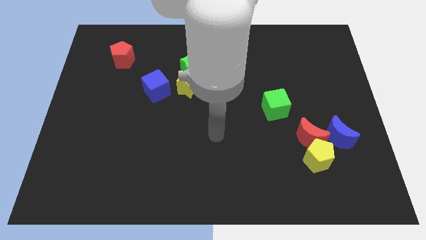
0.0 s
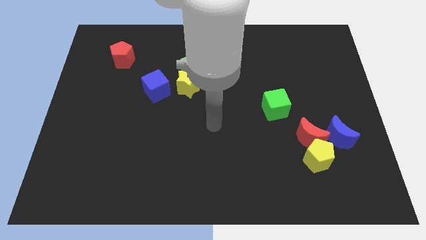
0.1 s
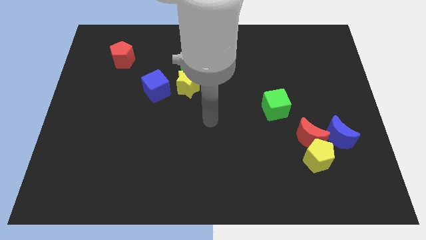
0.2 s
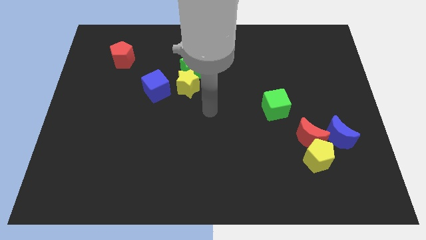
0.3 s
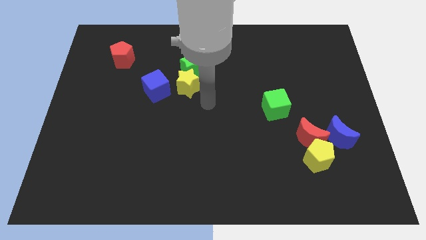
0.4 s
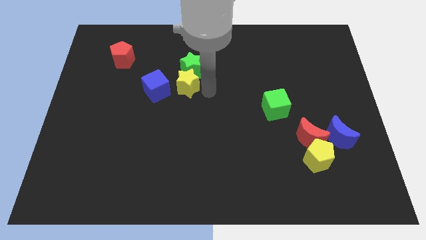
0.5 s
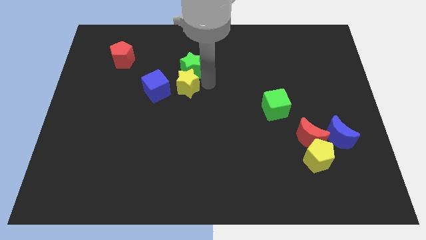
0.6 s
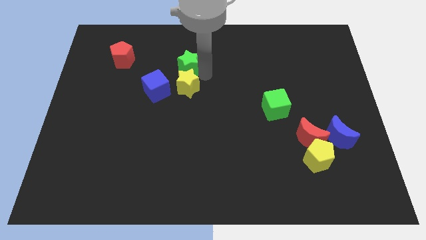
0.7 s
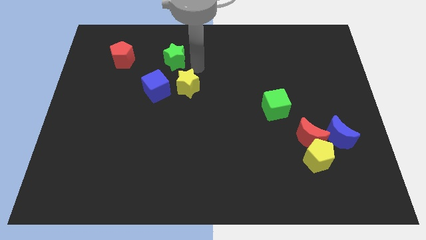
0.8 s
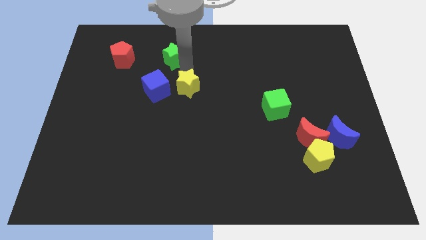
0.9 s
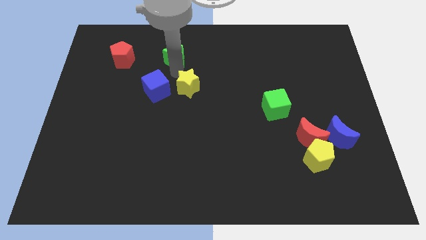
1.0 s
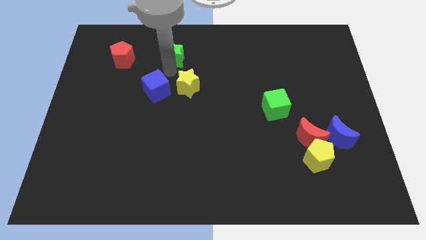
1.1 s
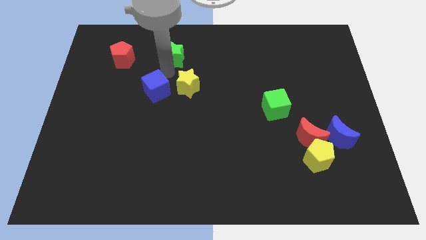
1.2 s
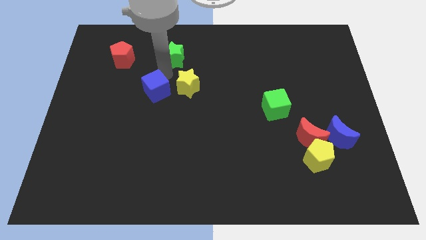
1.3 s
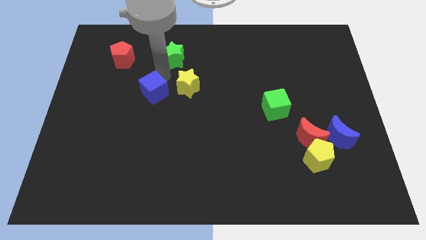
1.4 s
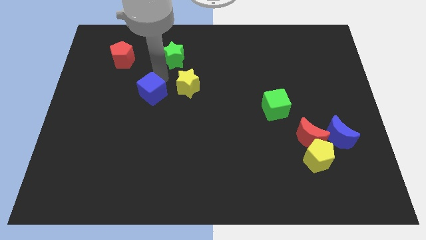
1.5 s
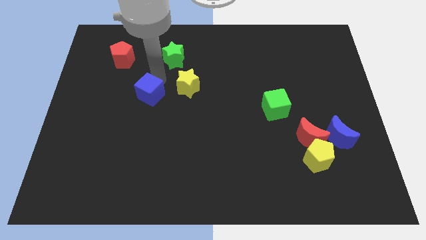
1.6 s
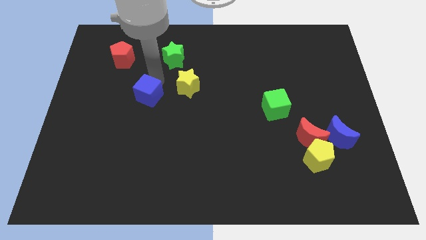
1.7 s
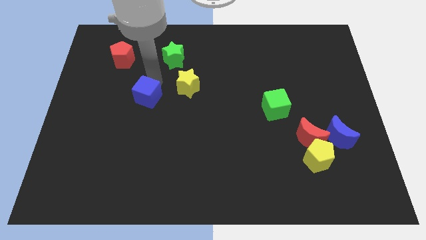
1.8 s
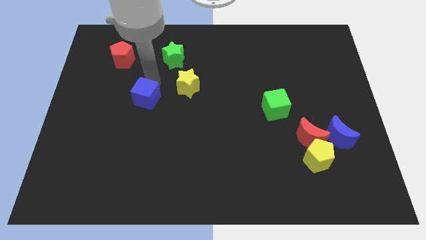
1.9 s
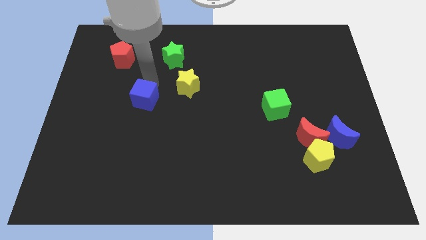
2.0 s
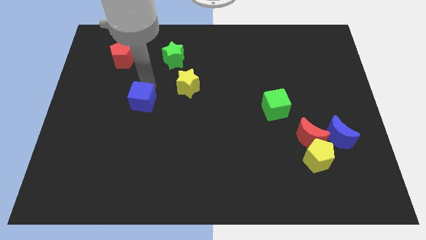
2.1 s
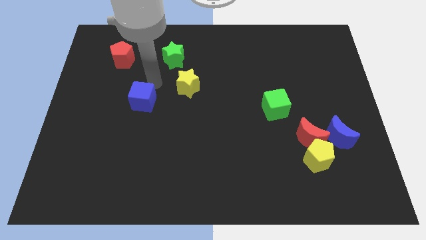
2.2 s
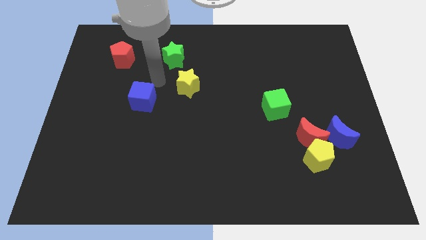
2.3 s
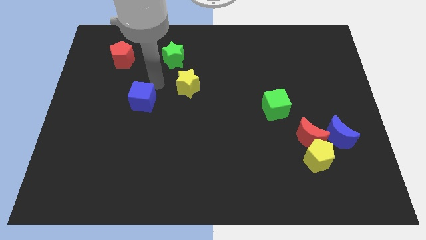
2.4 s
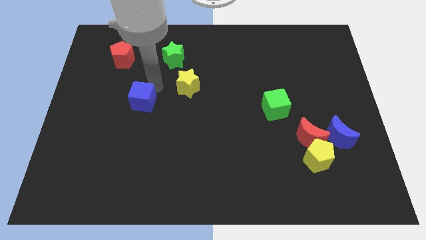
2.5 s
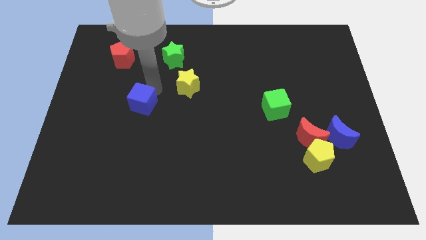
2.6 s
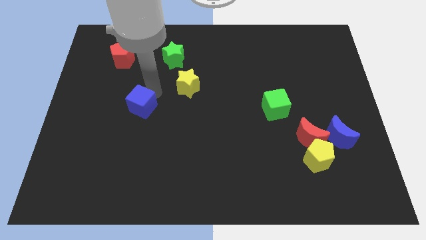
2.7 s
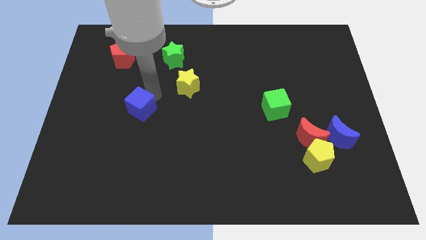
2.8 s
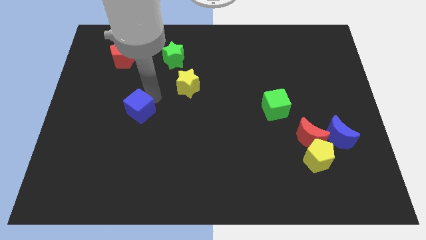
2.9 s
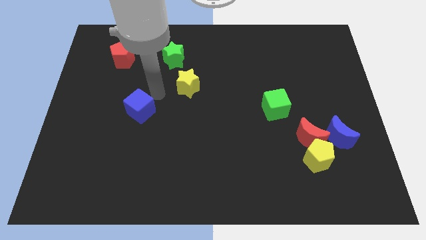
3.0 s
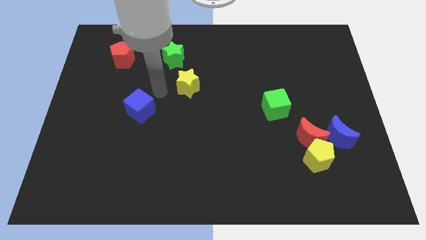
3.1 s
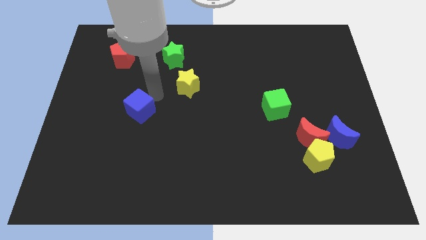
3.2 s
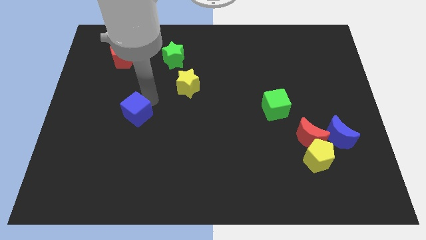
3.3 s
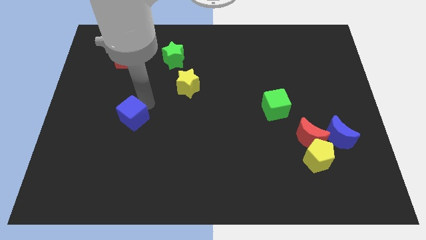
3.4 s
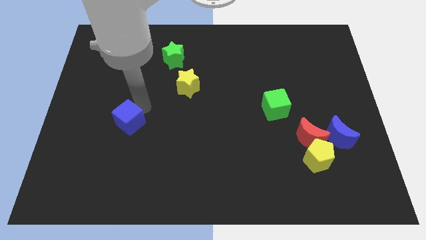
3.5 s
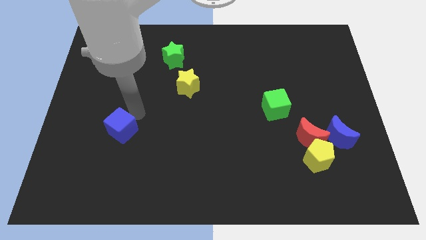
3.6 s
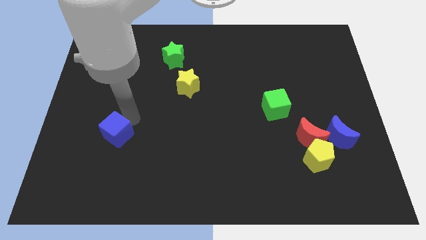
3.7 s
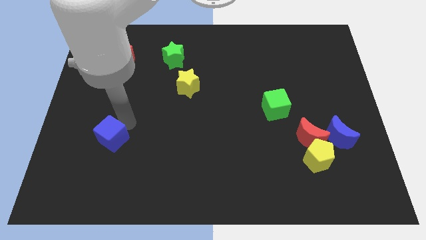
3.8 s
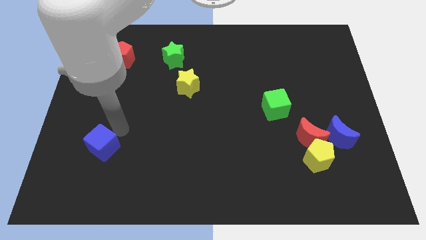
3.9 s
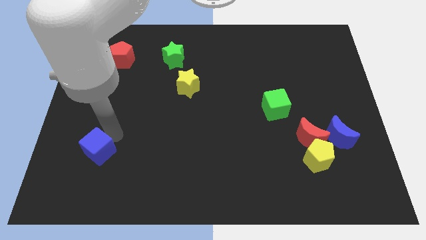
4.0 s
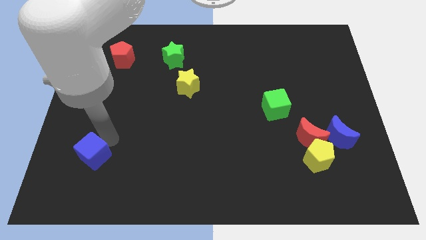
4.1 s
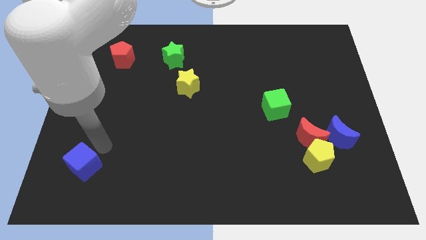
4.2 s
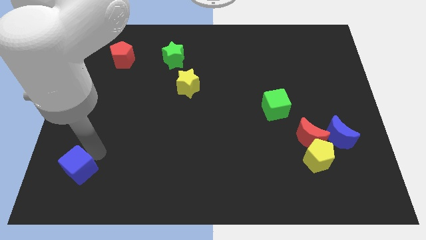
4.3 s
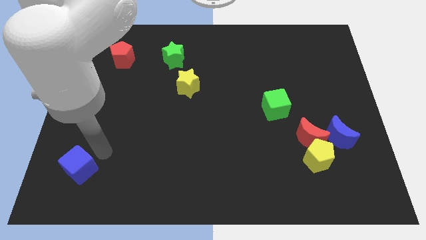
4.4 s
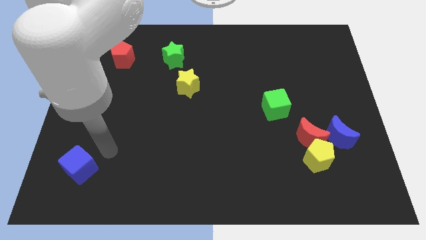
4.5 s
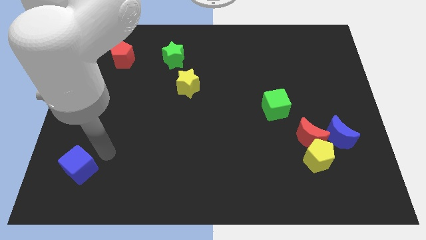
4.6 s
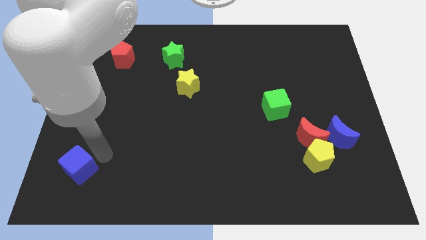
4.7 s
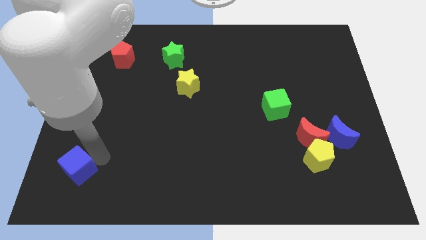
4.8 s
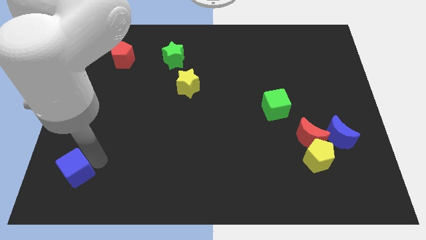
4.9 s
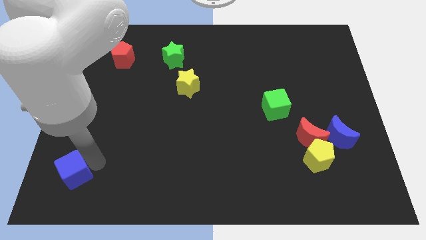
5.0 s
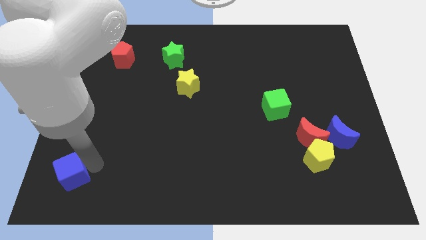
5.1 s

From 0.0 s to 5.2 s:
put the blue cube to the bottom left of the board
